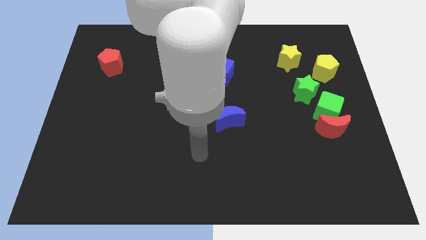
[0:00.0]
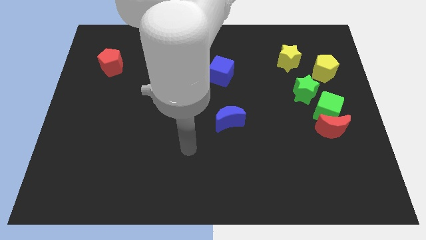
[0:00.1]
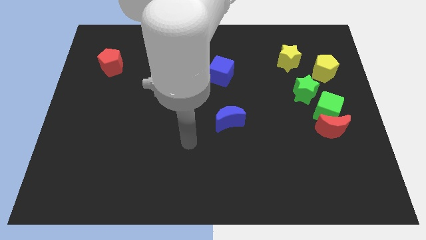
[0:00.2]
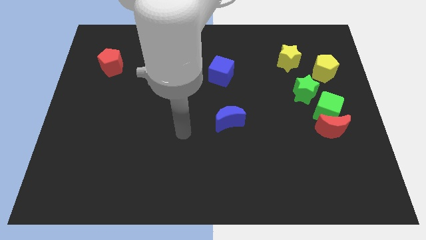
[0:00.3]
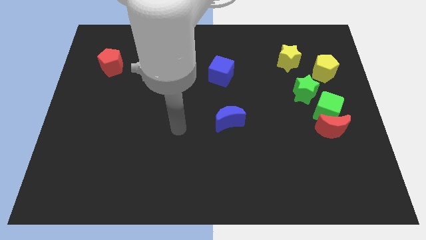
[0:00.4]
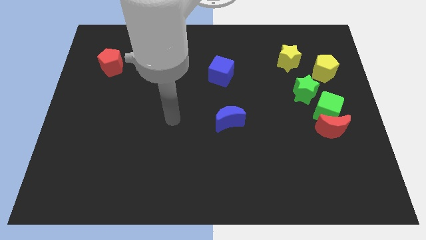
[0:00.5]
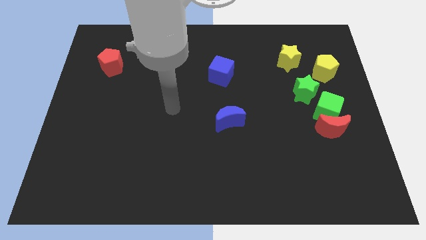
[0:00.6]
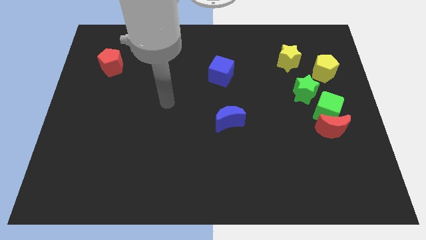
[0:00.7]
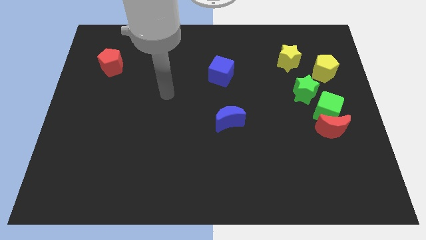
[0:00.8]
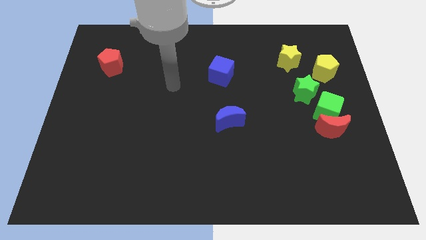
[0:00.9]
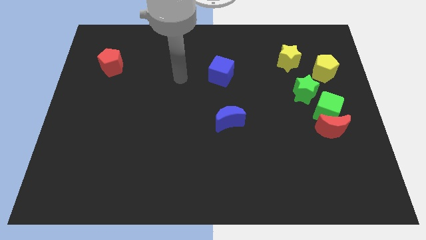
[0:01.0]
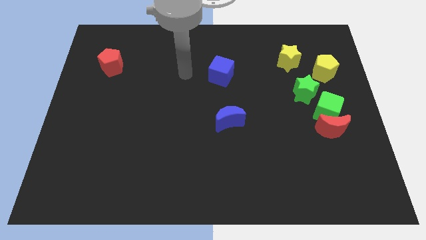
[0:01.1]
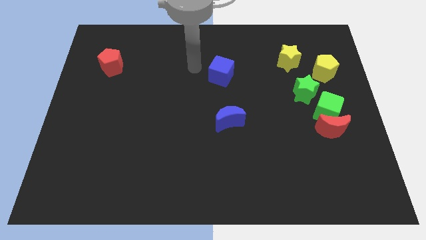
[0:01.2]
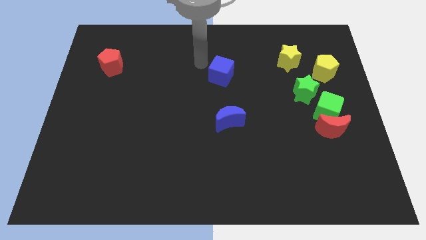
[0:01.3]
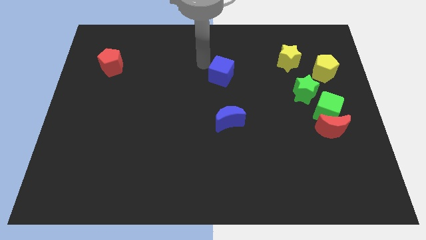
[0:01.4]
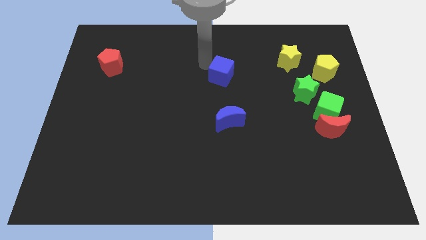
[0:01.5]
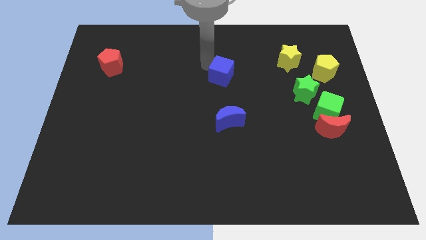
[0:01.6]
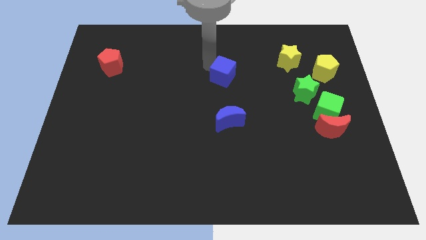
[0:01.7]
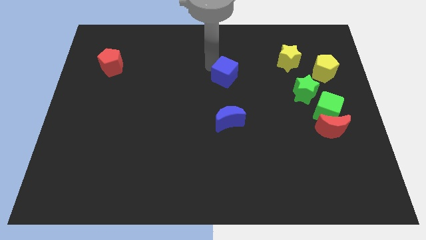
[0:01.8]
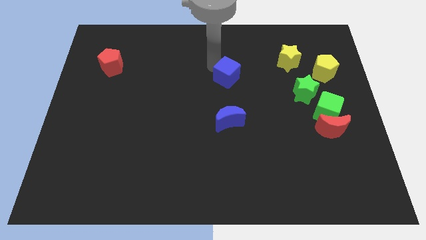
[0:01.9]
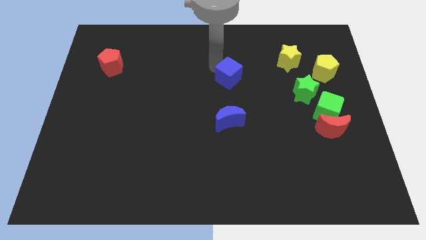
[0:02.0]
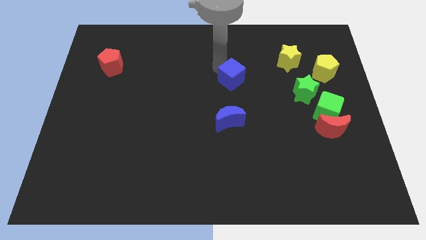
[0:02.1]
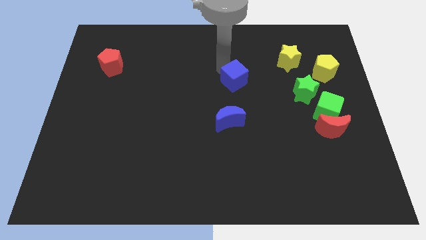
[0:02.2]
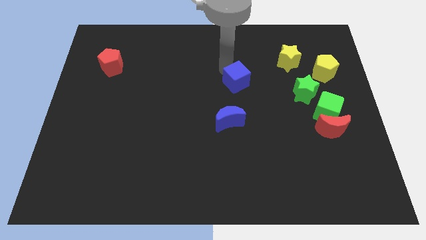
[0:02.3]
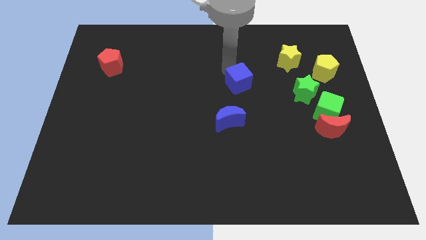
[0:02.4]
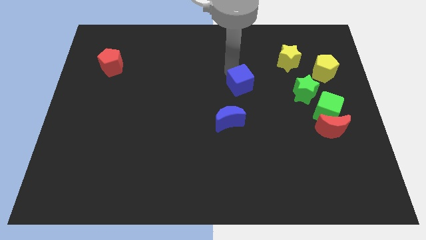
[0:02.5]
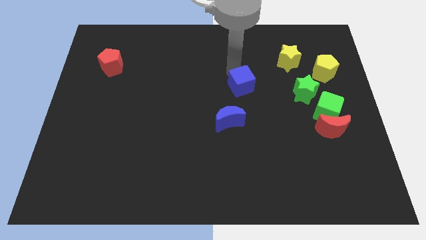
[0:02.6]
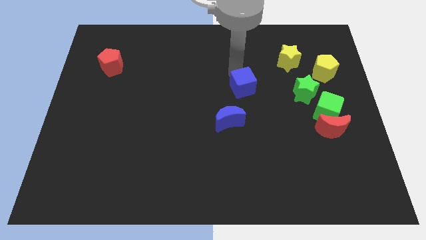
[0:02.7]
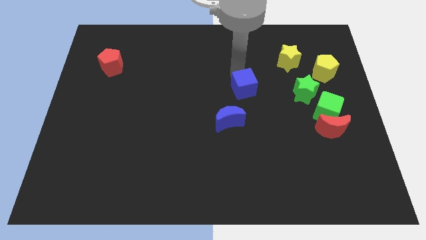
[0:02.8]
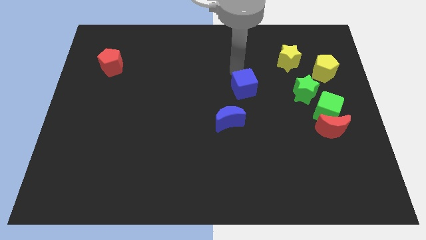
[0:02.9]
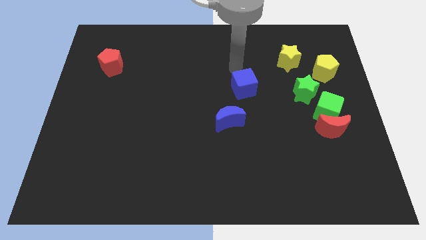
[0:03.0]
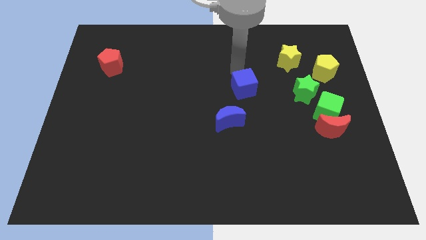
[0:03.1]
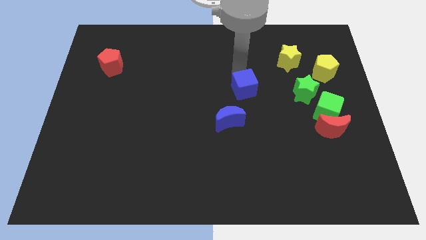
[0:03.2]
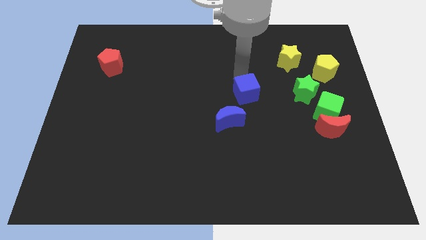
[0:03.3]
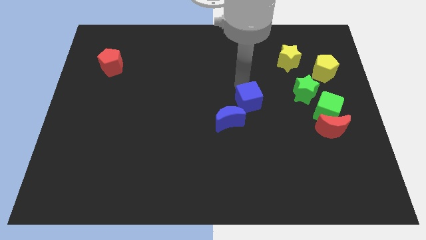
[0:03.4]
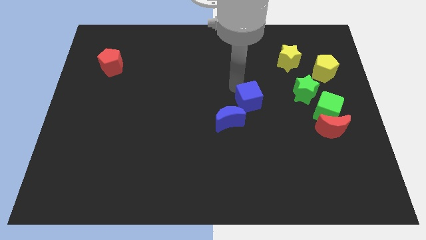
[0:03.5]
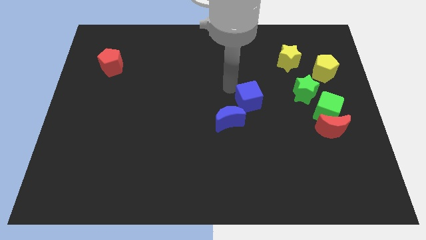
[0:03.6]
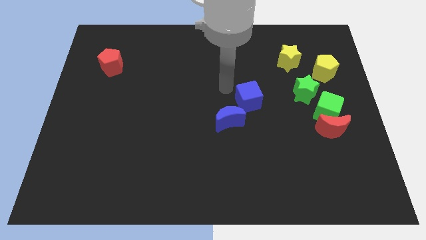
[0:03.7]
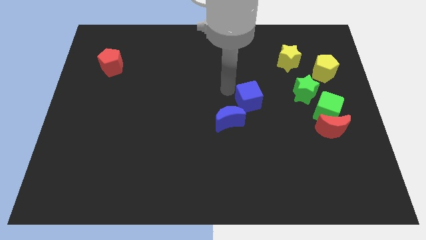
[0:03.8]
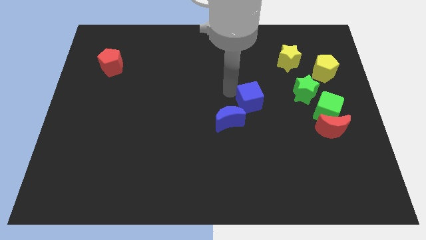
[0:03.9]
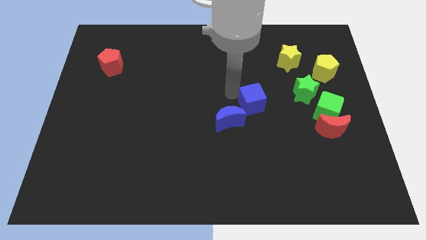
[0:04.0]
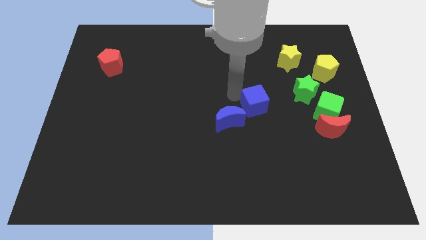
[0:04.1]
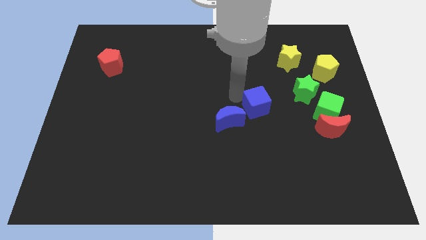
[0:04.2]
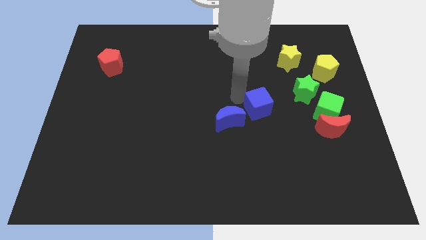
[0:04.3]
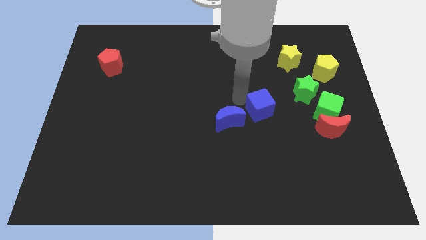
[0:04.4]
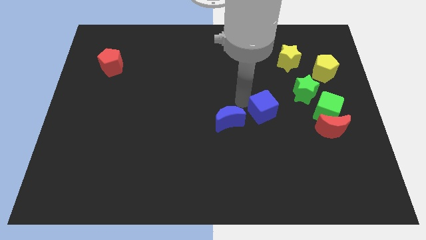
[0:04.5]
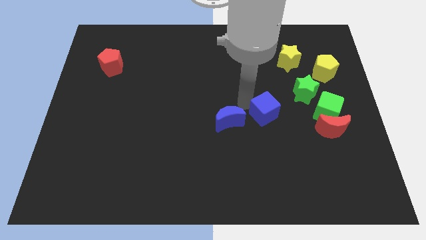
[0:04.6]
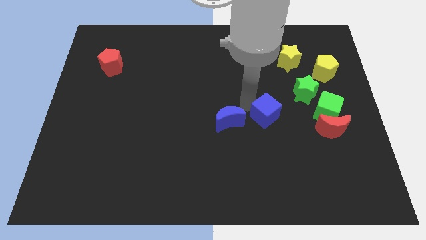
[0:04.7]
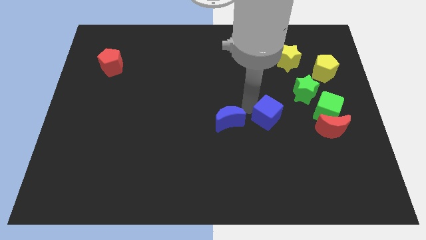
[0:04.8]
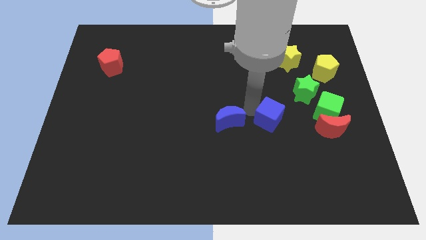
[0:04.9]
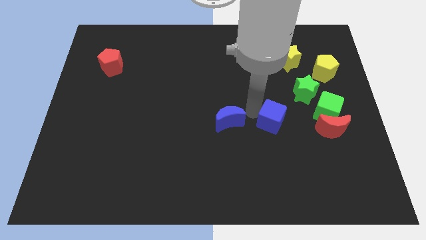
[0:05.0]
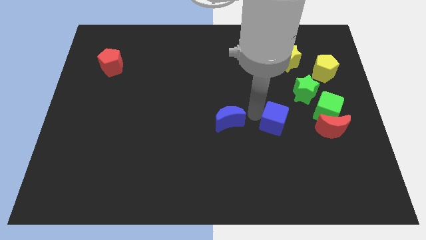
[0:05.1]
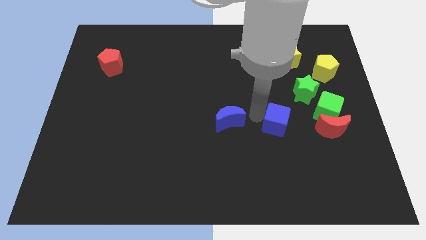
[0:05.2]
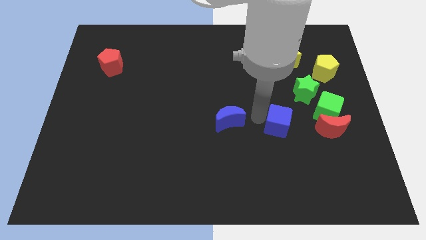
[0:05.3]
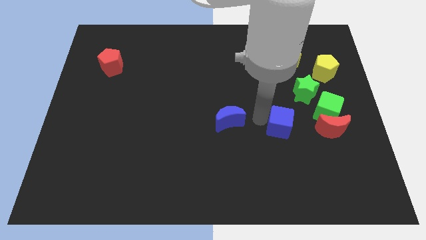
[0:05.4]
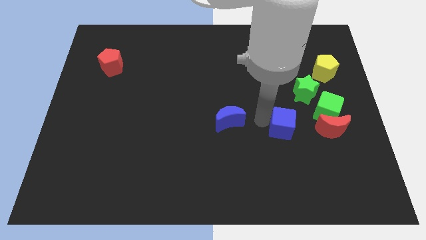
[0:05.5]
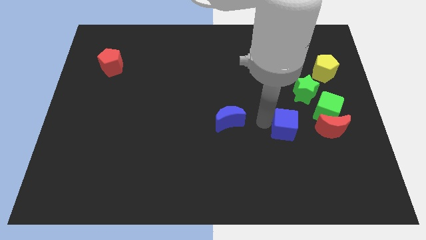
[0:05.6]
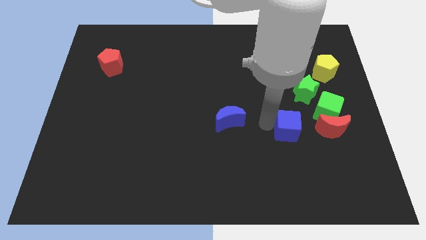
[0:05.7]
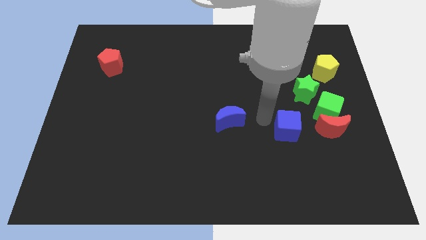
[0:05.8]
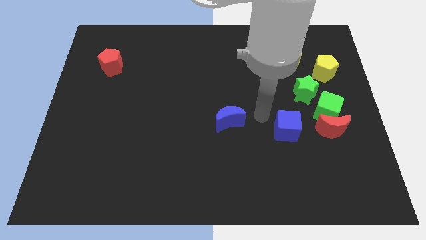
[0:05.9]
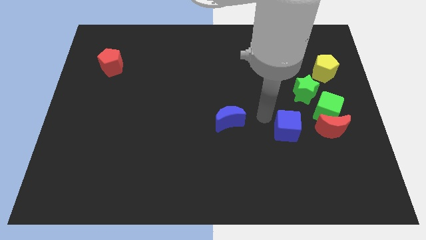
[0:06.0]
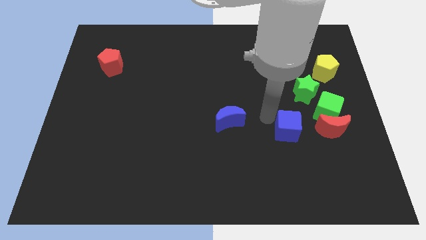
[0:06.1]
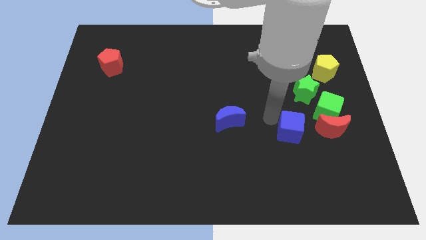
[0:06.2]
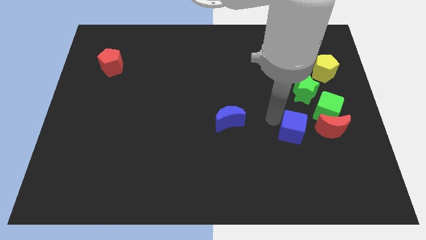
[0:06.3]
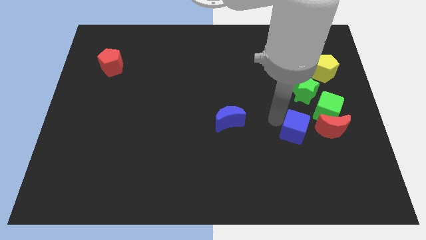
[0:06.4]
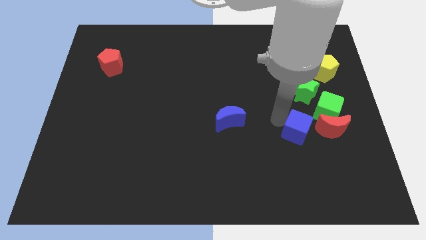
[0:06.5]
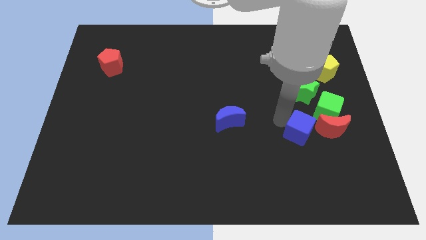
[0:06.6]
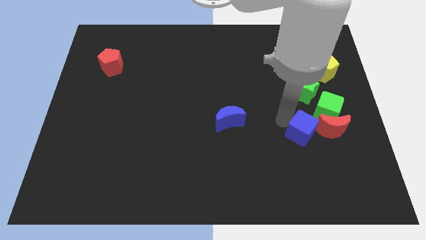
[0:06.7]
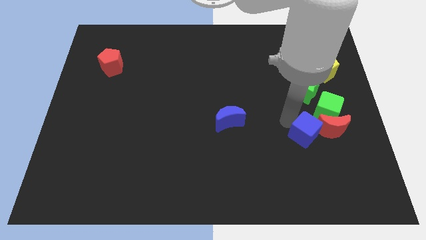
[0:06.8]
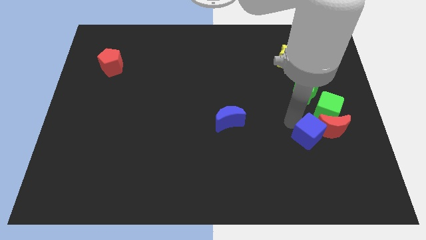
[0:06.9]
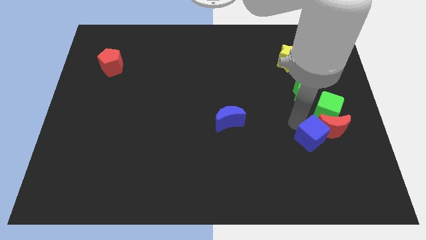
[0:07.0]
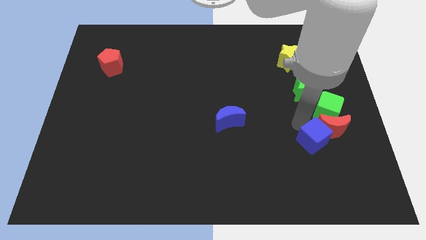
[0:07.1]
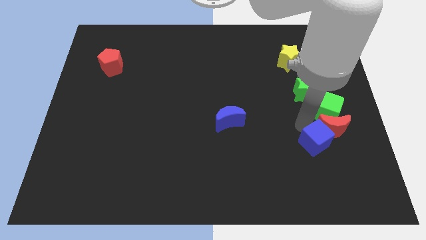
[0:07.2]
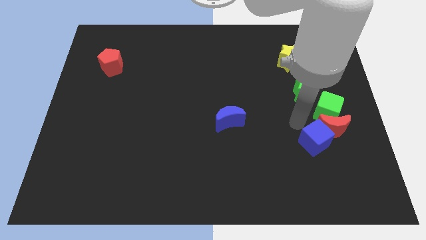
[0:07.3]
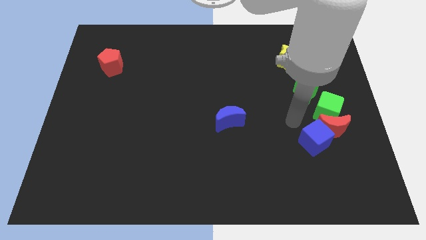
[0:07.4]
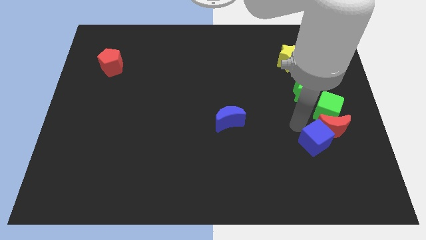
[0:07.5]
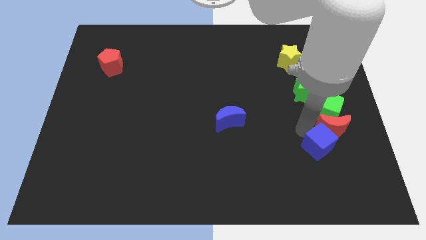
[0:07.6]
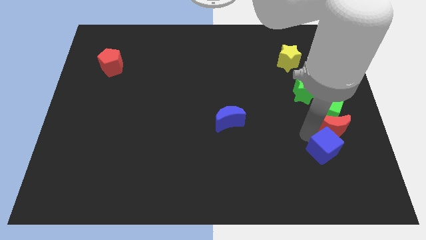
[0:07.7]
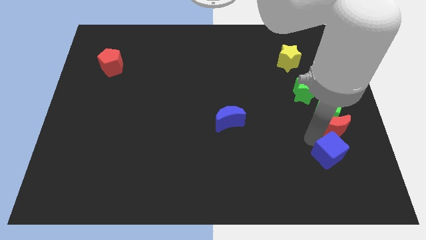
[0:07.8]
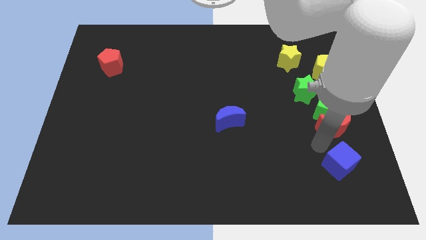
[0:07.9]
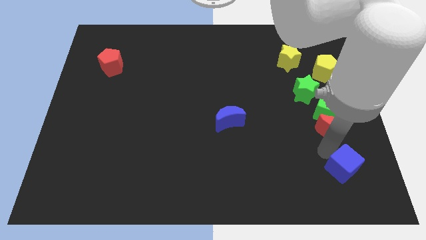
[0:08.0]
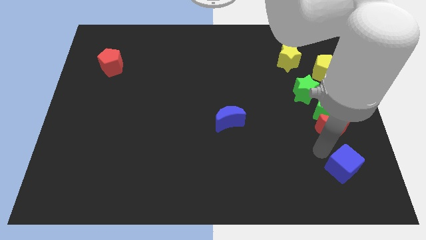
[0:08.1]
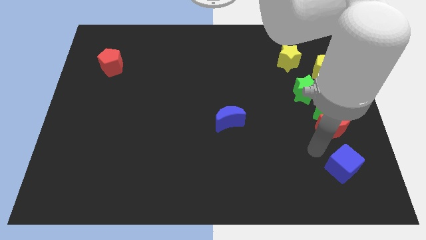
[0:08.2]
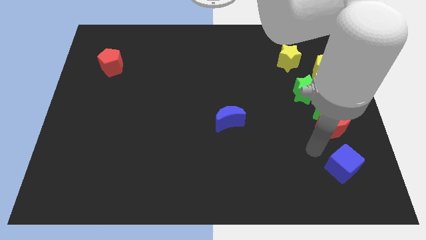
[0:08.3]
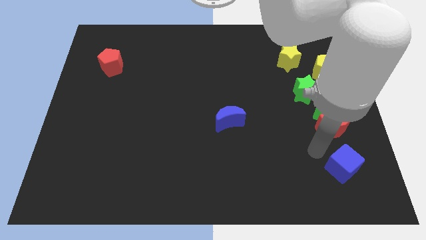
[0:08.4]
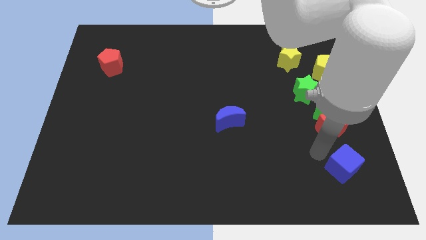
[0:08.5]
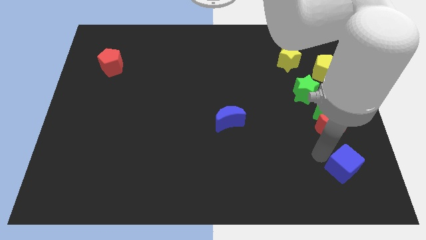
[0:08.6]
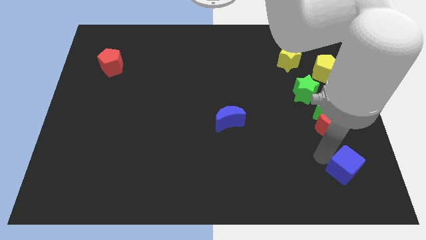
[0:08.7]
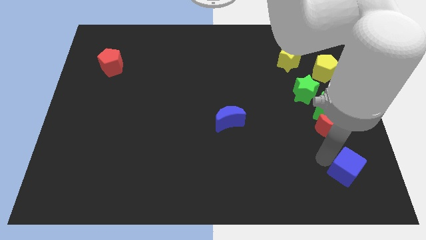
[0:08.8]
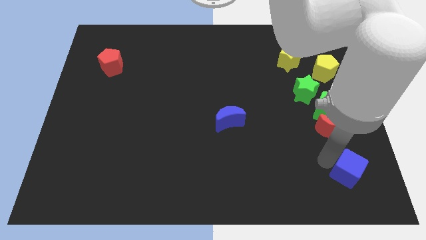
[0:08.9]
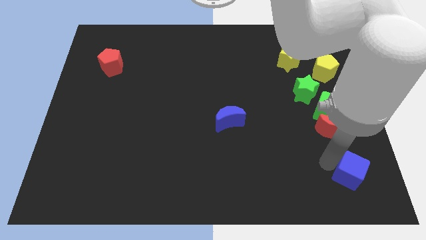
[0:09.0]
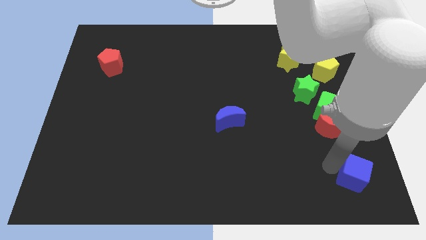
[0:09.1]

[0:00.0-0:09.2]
move the blue cube to the bottom right corner
